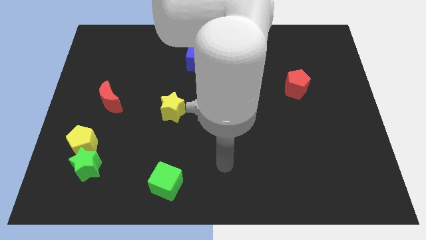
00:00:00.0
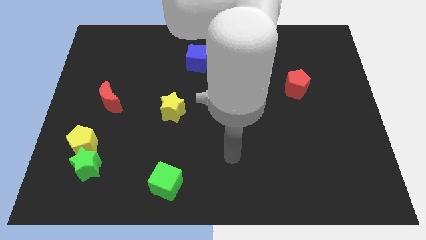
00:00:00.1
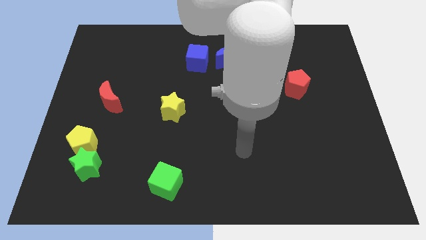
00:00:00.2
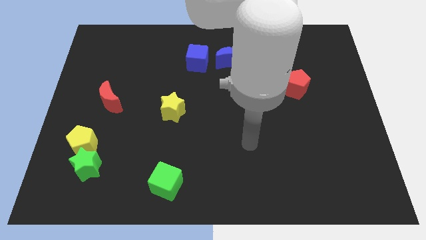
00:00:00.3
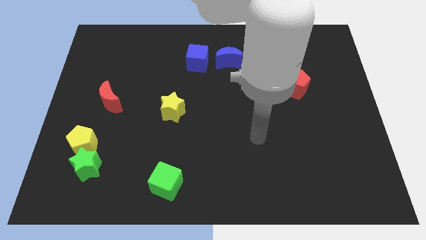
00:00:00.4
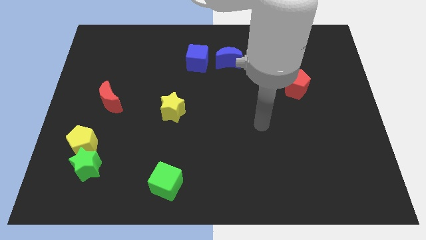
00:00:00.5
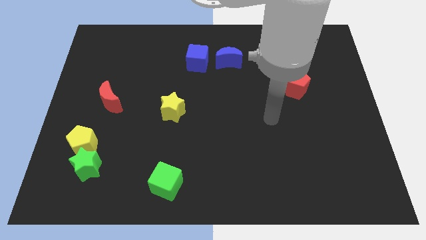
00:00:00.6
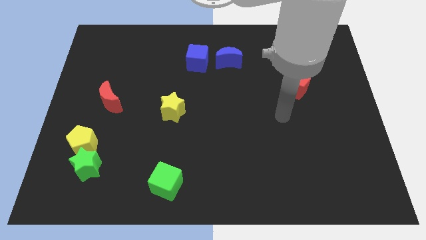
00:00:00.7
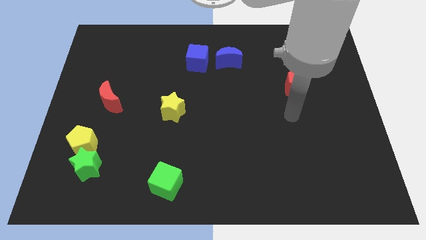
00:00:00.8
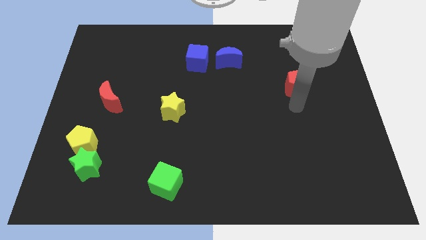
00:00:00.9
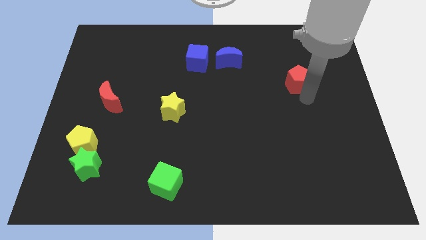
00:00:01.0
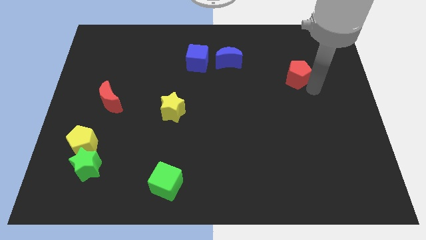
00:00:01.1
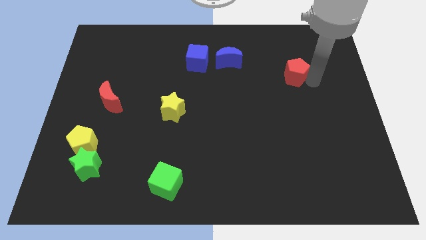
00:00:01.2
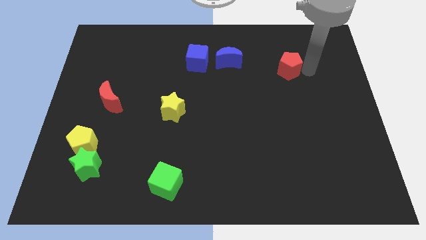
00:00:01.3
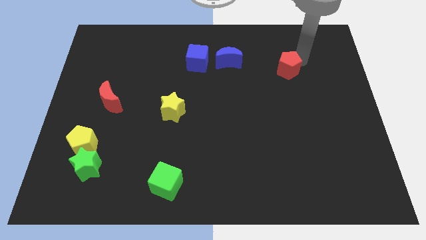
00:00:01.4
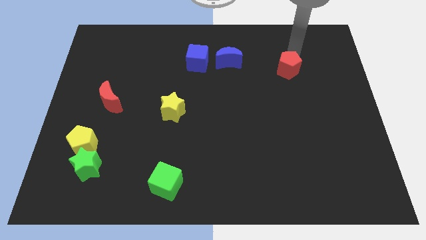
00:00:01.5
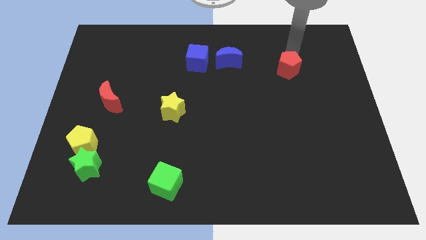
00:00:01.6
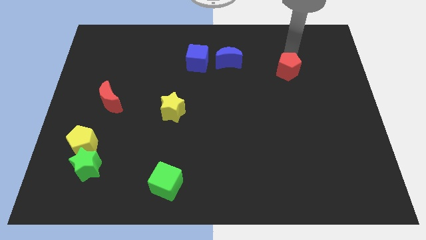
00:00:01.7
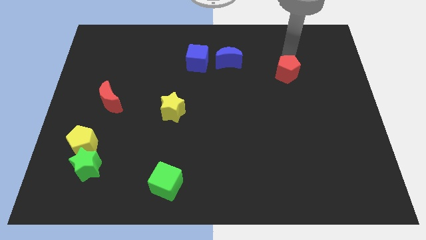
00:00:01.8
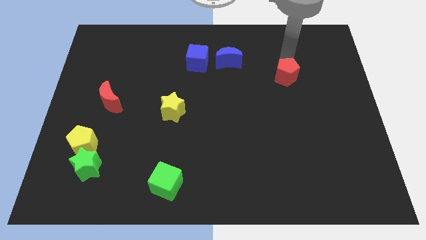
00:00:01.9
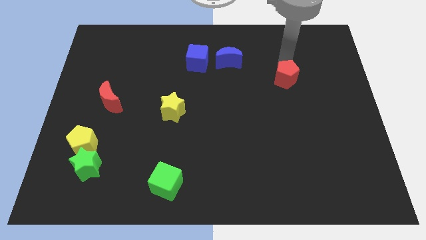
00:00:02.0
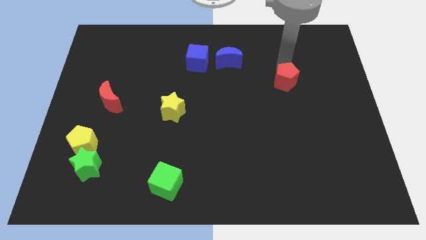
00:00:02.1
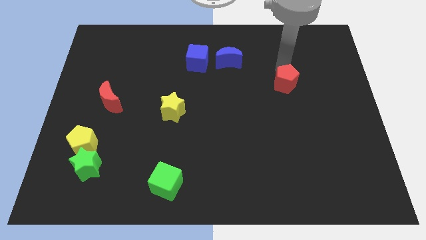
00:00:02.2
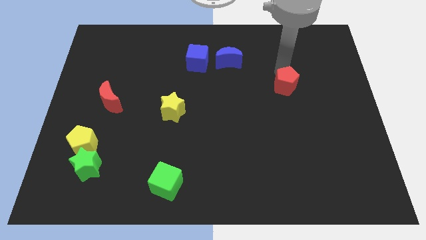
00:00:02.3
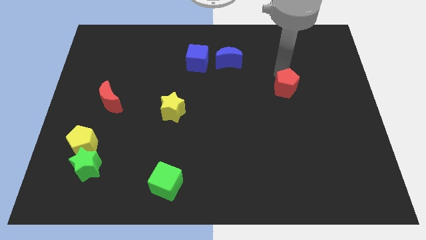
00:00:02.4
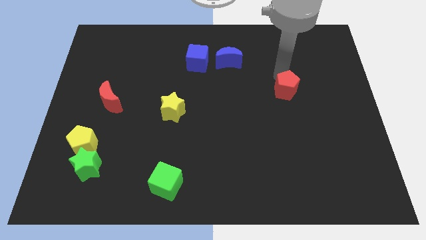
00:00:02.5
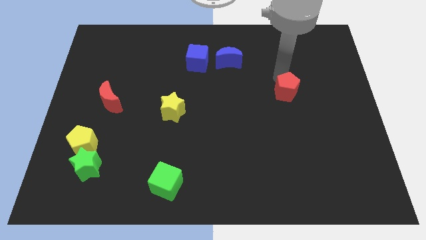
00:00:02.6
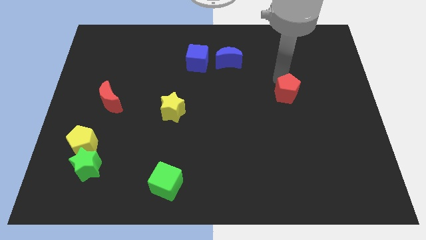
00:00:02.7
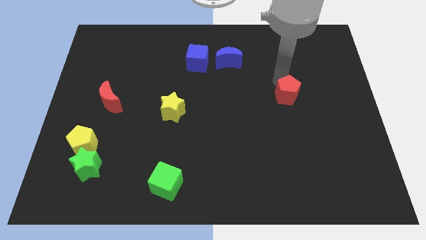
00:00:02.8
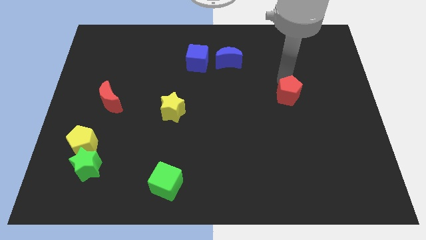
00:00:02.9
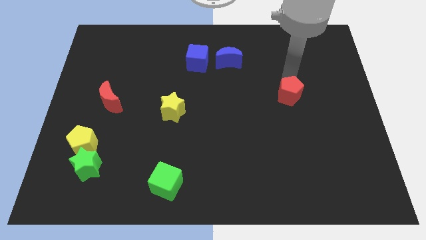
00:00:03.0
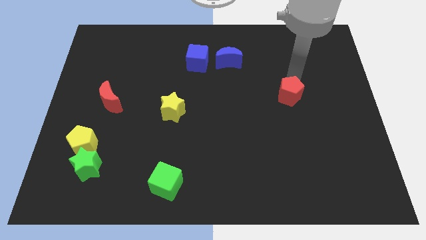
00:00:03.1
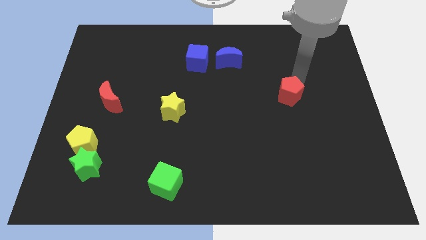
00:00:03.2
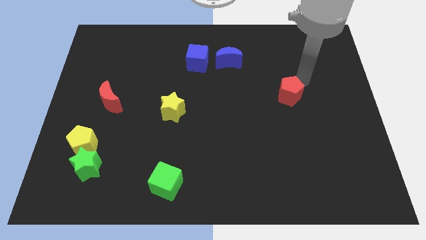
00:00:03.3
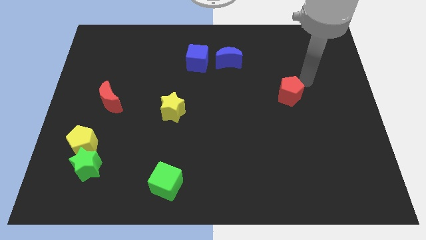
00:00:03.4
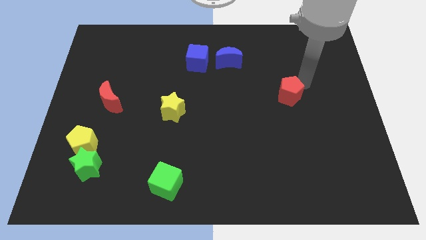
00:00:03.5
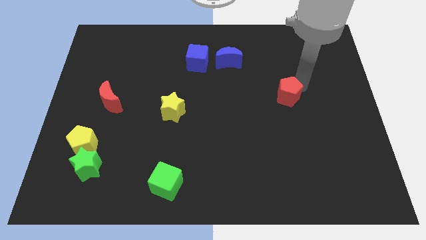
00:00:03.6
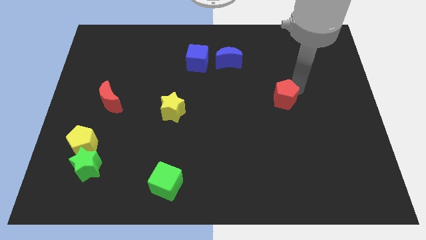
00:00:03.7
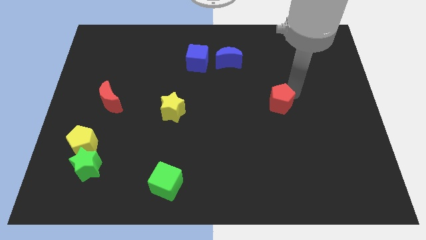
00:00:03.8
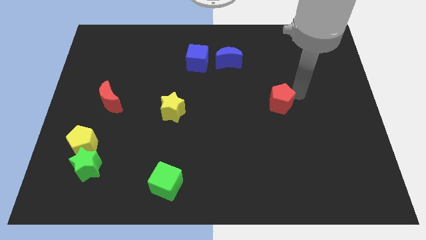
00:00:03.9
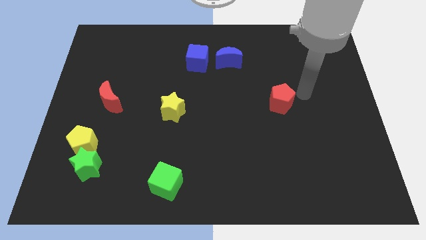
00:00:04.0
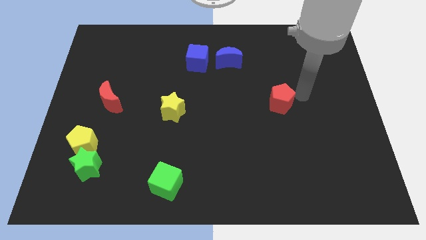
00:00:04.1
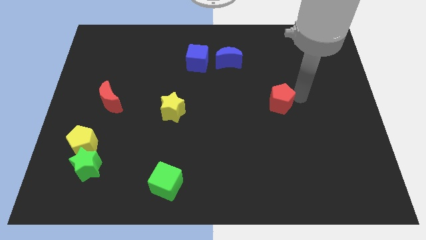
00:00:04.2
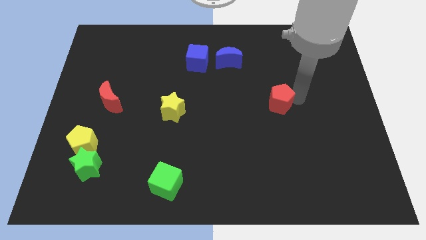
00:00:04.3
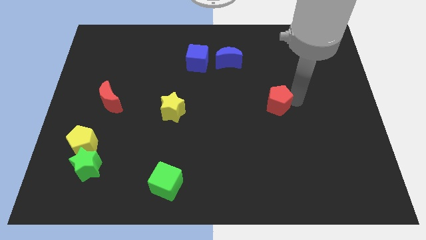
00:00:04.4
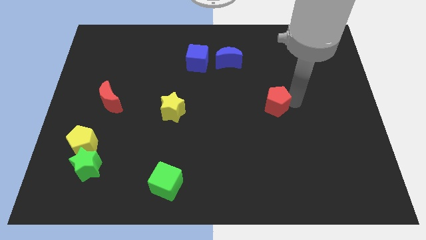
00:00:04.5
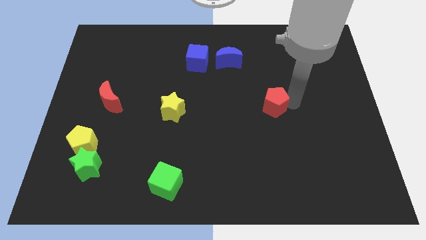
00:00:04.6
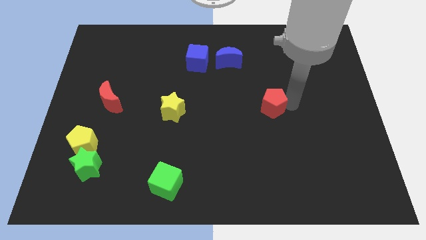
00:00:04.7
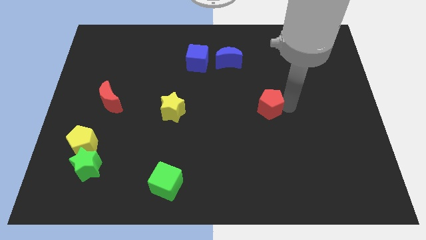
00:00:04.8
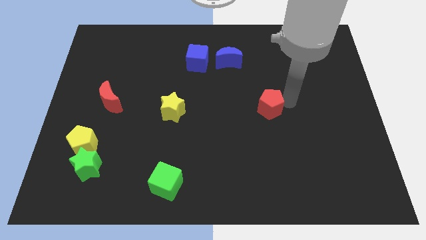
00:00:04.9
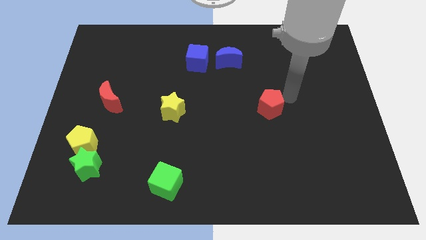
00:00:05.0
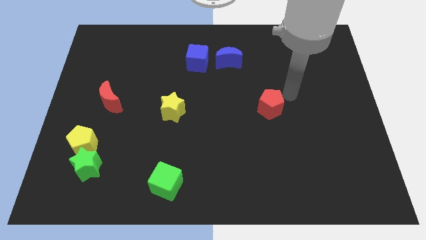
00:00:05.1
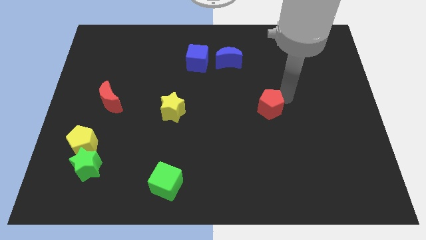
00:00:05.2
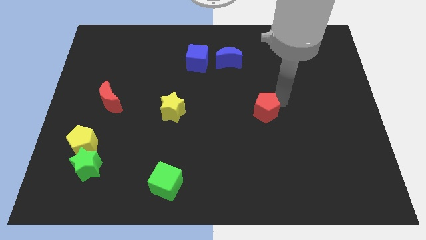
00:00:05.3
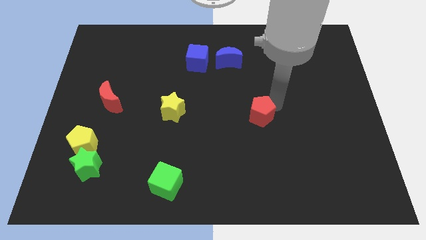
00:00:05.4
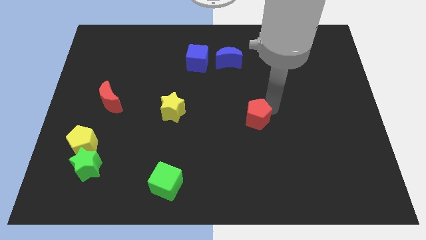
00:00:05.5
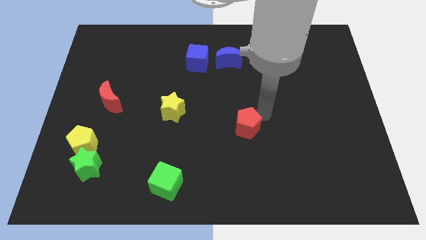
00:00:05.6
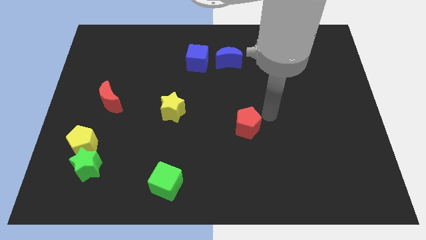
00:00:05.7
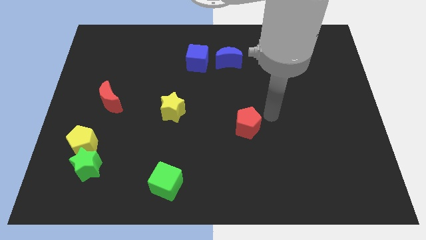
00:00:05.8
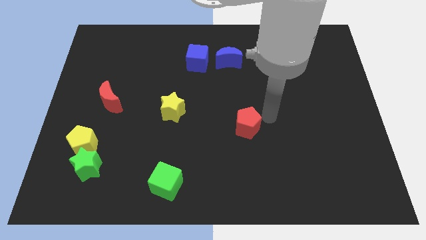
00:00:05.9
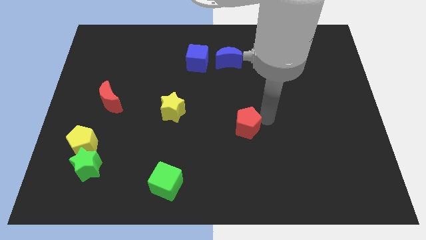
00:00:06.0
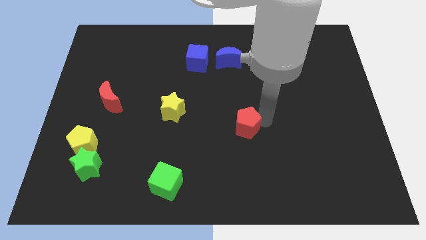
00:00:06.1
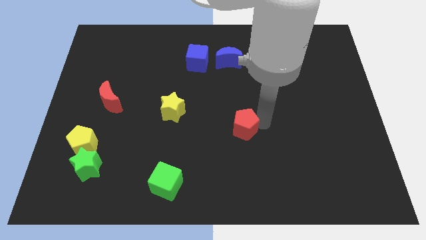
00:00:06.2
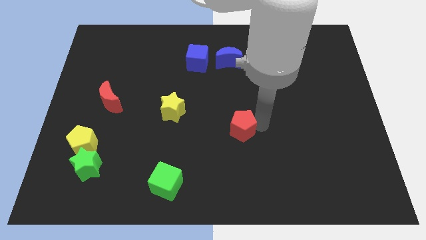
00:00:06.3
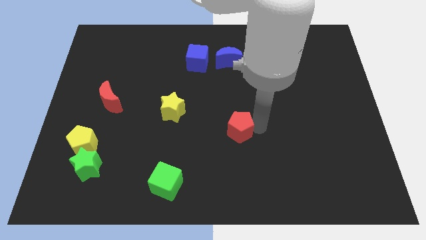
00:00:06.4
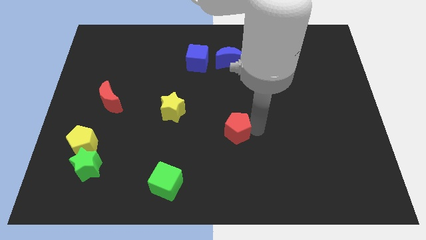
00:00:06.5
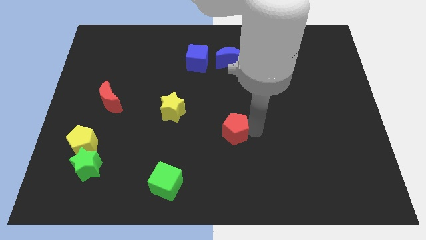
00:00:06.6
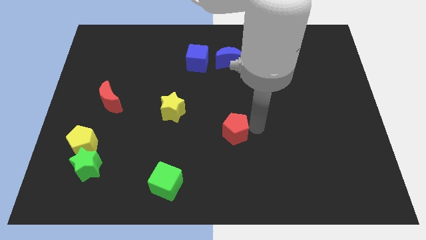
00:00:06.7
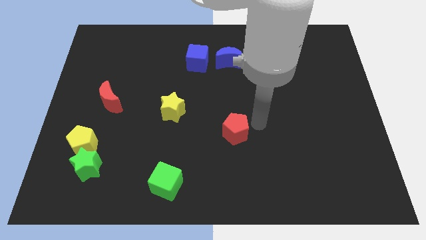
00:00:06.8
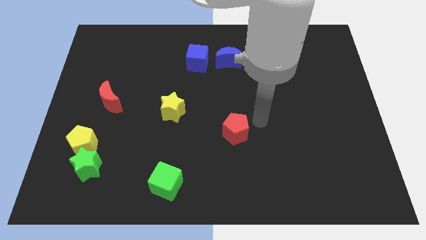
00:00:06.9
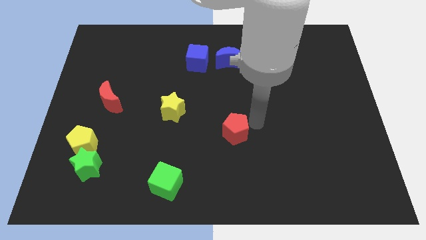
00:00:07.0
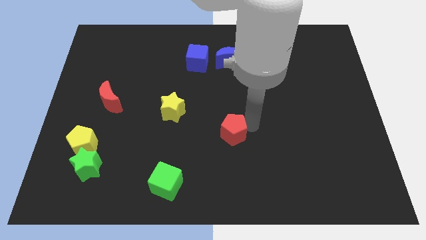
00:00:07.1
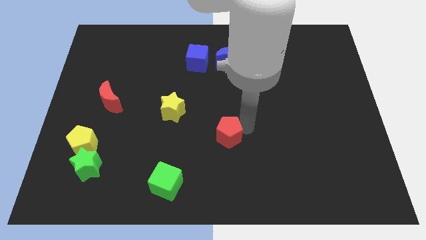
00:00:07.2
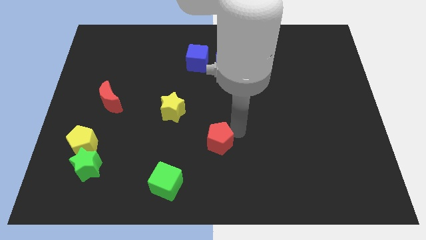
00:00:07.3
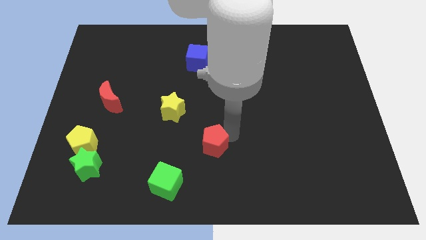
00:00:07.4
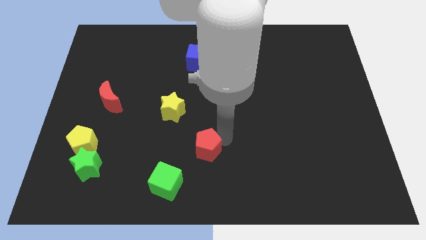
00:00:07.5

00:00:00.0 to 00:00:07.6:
put the red pentagon to the top right of the green cube

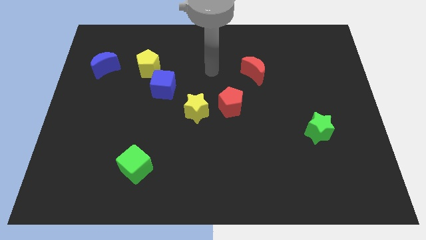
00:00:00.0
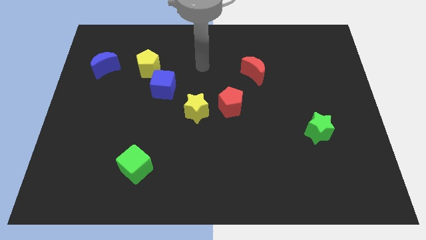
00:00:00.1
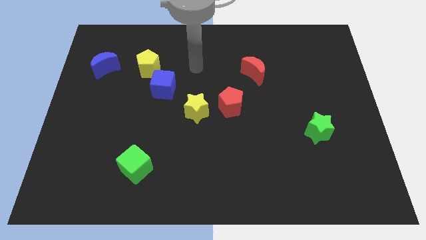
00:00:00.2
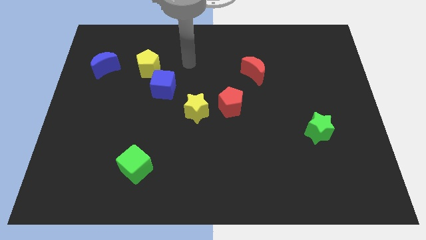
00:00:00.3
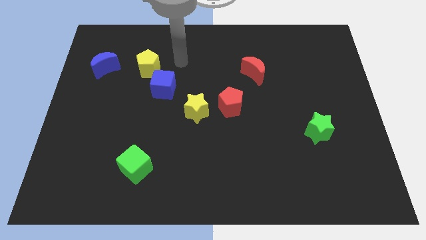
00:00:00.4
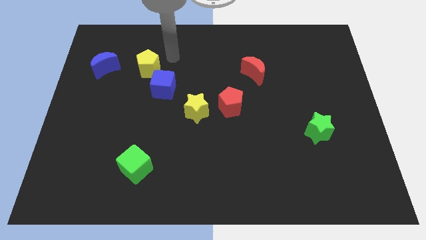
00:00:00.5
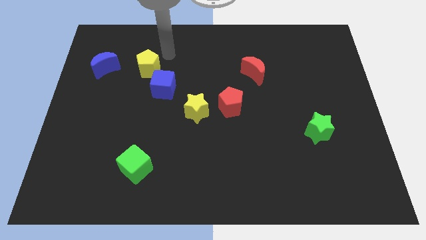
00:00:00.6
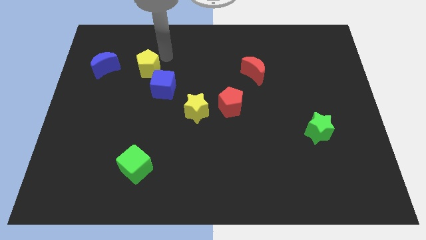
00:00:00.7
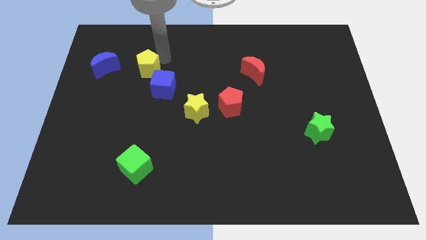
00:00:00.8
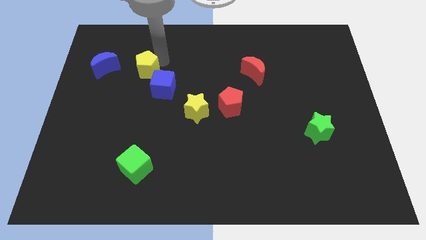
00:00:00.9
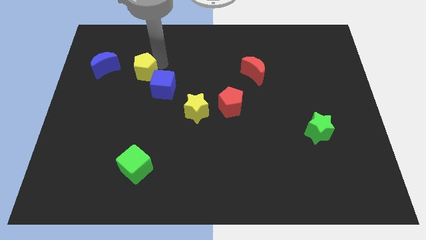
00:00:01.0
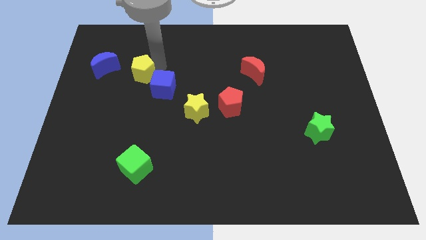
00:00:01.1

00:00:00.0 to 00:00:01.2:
put the yellow pentagon to the left side of the blue cube
